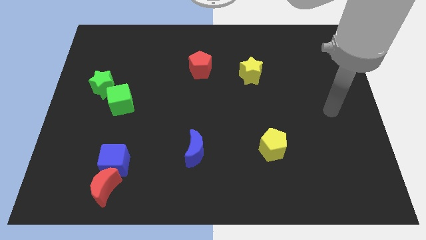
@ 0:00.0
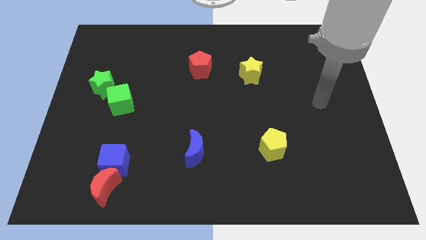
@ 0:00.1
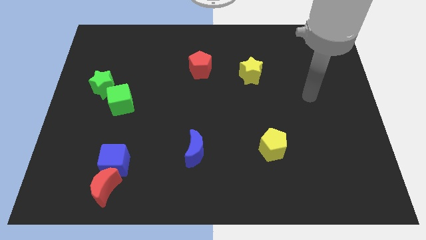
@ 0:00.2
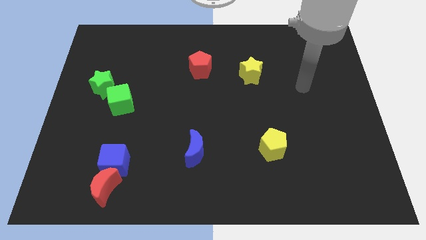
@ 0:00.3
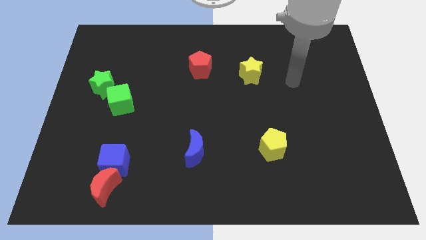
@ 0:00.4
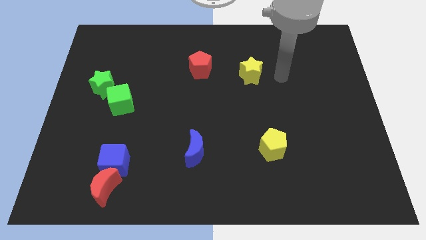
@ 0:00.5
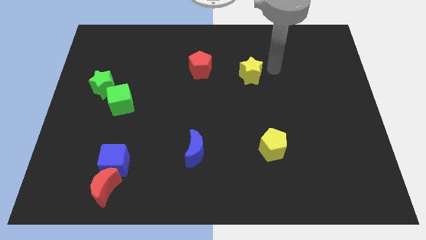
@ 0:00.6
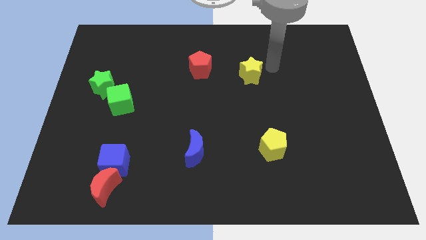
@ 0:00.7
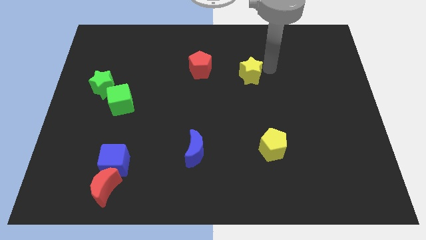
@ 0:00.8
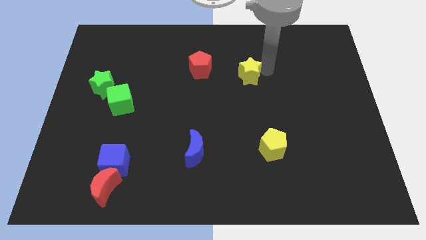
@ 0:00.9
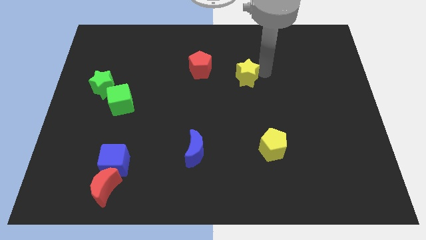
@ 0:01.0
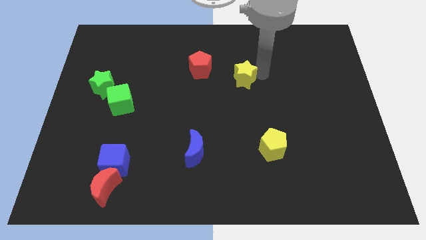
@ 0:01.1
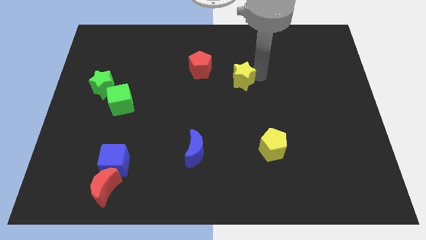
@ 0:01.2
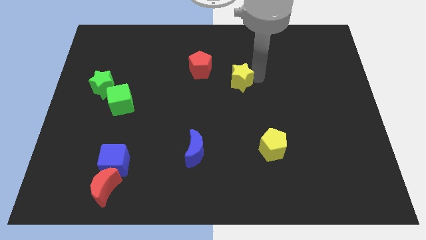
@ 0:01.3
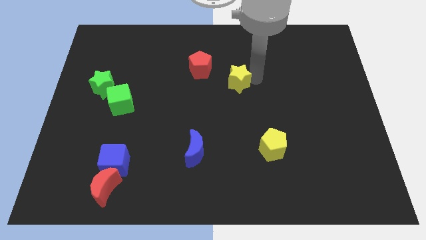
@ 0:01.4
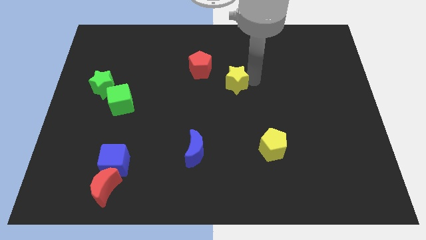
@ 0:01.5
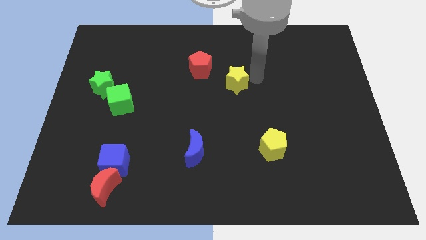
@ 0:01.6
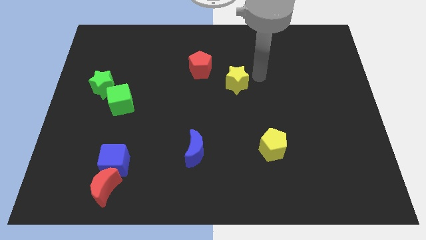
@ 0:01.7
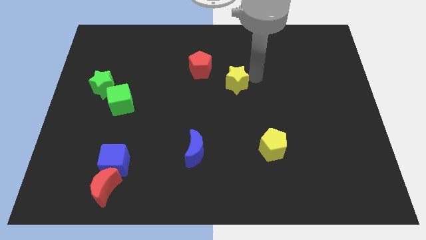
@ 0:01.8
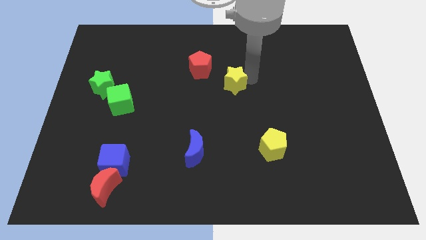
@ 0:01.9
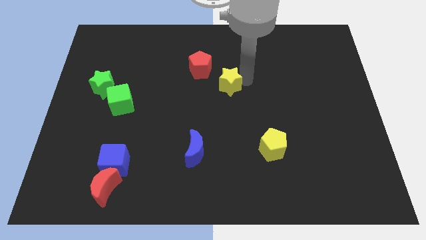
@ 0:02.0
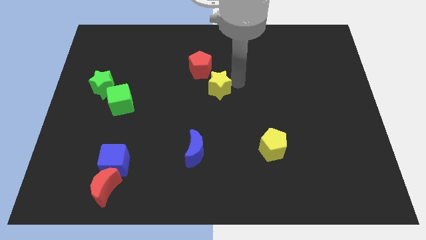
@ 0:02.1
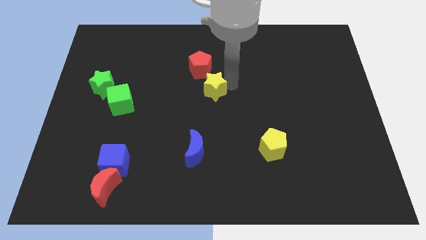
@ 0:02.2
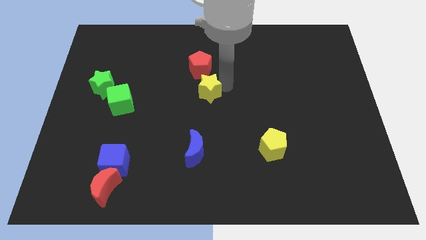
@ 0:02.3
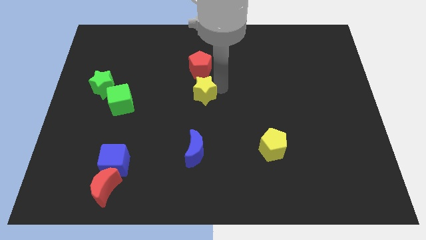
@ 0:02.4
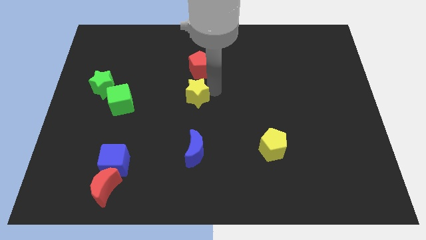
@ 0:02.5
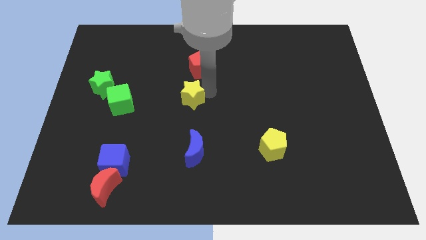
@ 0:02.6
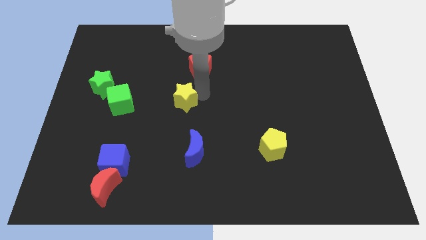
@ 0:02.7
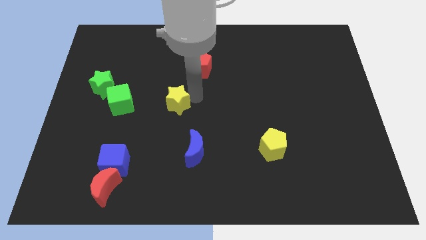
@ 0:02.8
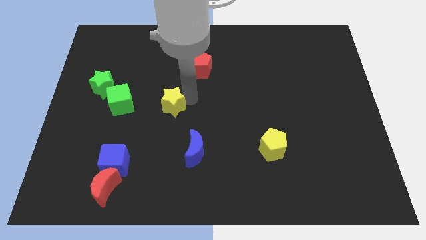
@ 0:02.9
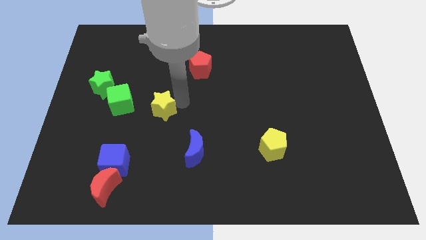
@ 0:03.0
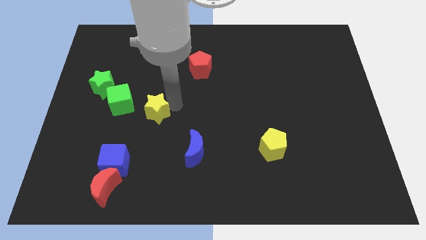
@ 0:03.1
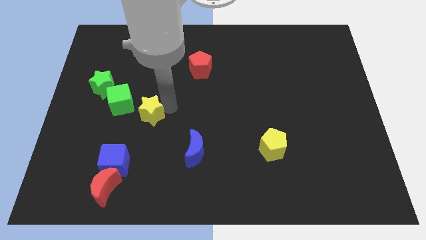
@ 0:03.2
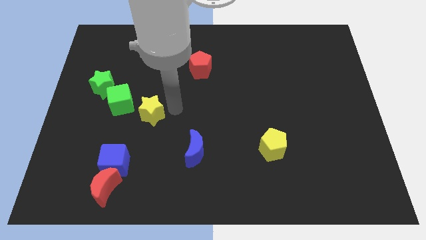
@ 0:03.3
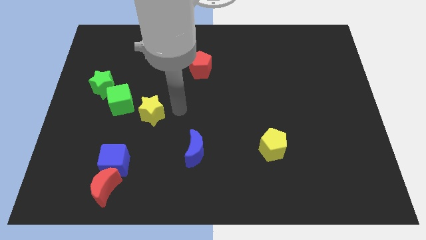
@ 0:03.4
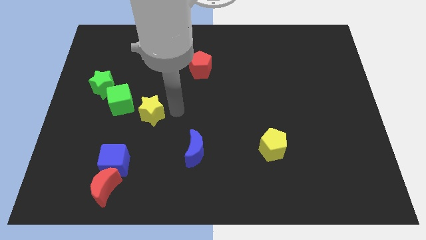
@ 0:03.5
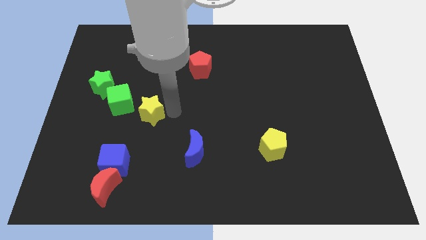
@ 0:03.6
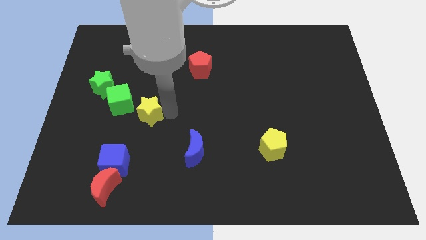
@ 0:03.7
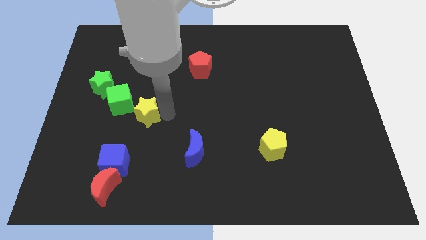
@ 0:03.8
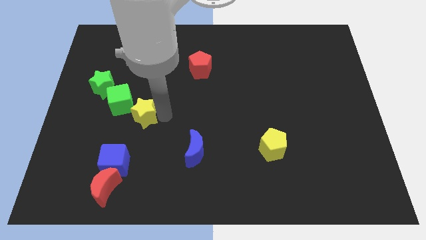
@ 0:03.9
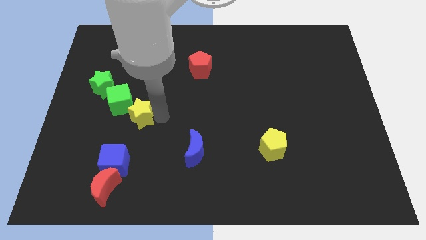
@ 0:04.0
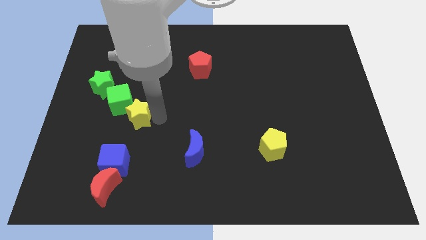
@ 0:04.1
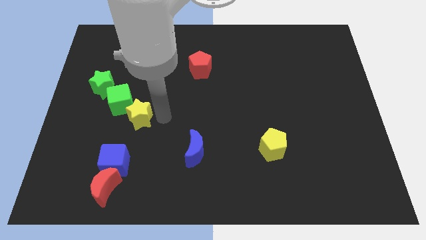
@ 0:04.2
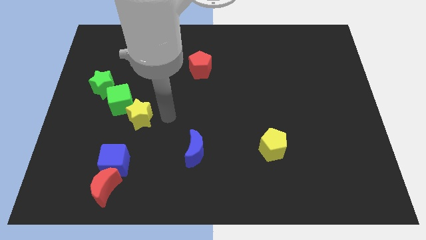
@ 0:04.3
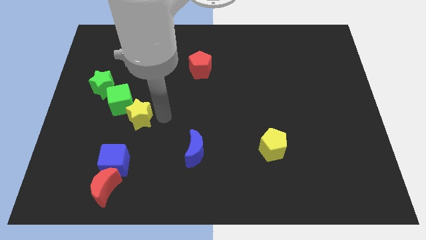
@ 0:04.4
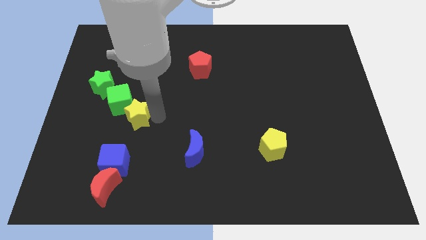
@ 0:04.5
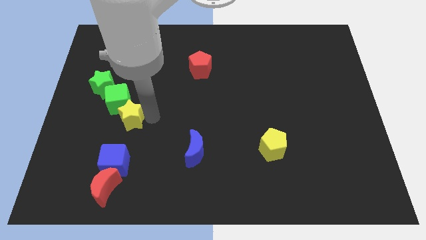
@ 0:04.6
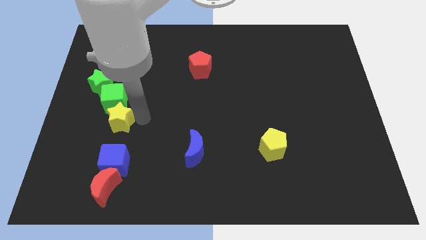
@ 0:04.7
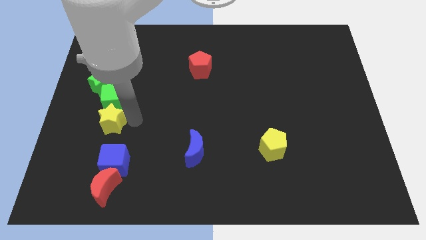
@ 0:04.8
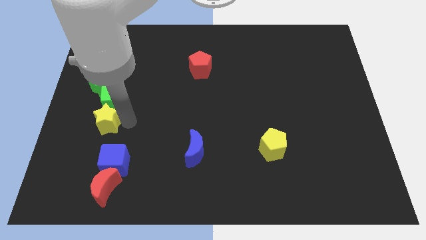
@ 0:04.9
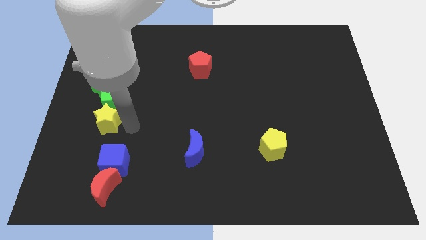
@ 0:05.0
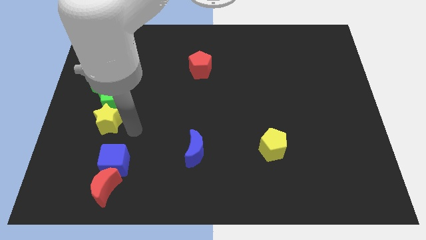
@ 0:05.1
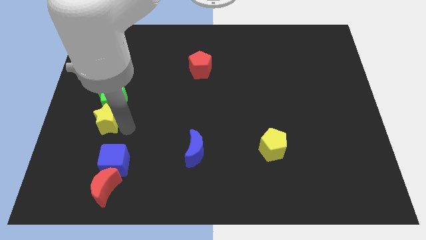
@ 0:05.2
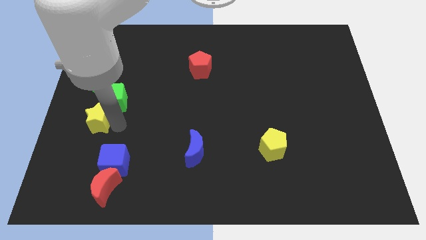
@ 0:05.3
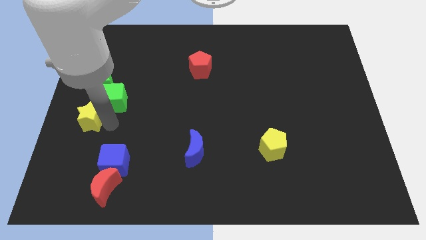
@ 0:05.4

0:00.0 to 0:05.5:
push the yellow star to the left side of the board

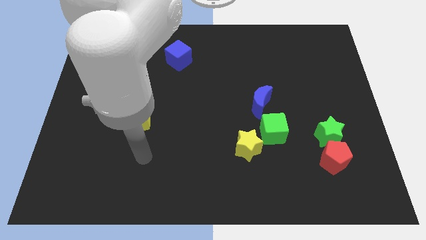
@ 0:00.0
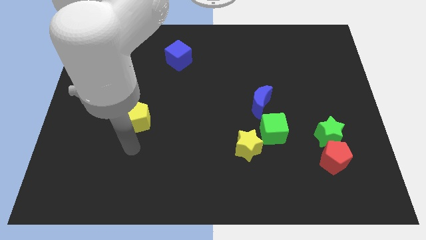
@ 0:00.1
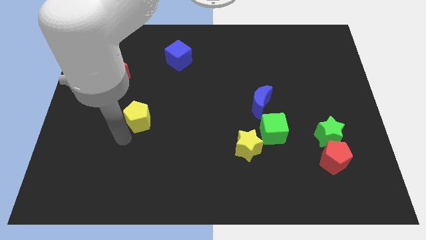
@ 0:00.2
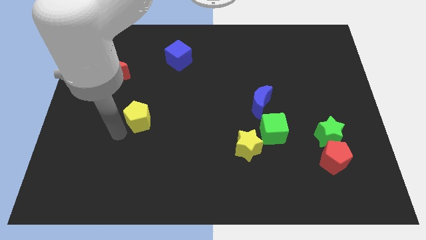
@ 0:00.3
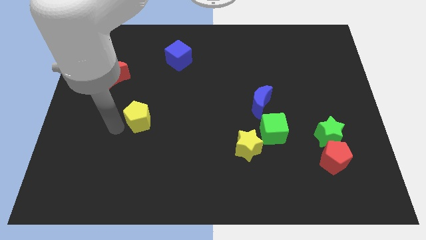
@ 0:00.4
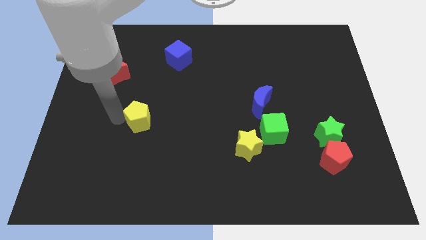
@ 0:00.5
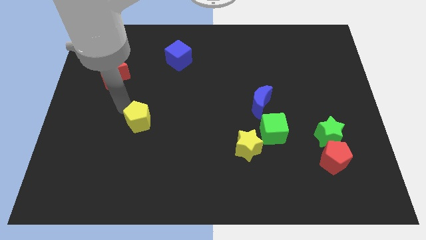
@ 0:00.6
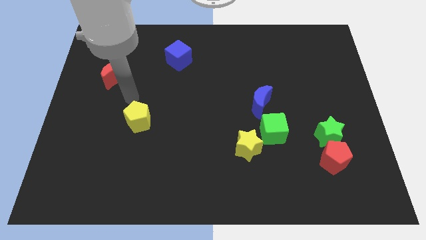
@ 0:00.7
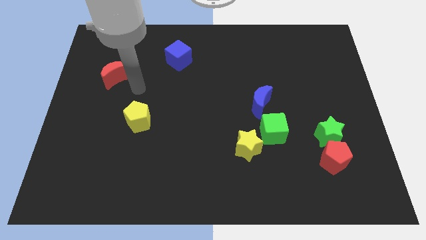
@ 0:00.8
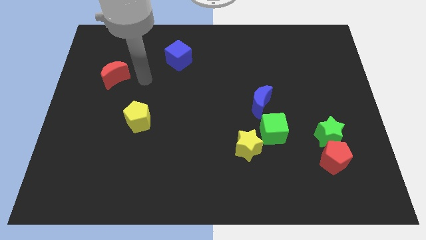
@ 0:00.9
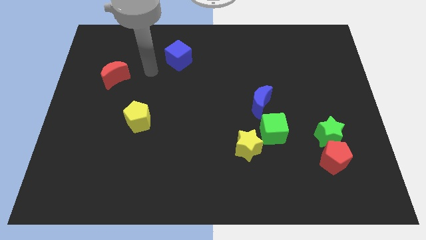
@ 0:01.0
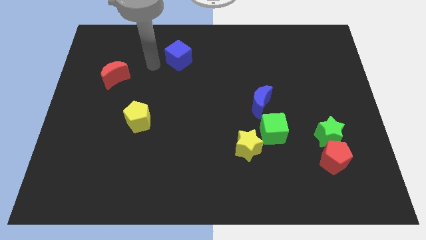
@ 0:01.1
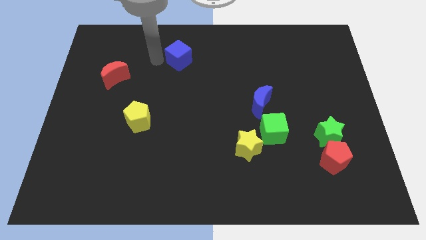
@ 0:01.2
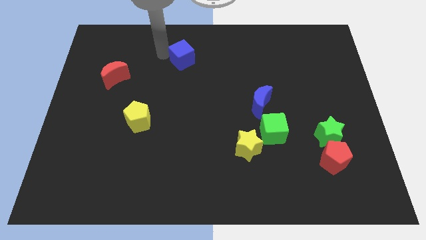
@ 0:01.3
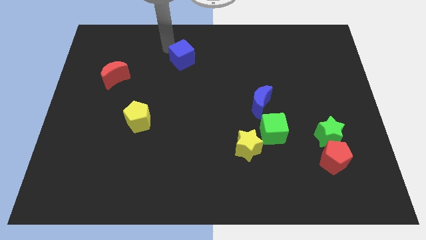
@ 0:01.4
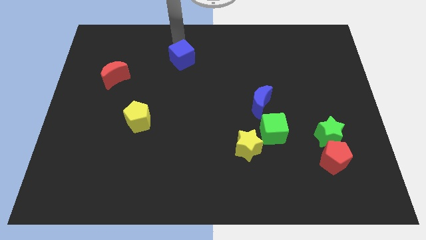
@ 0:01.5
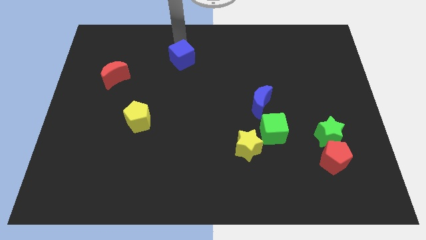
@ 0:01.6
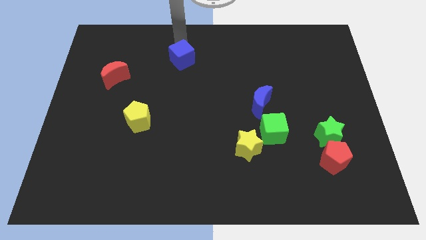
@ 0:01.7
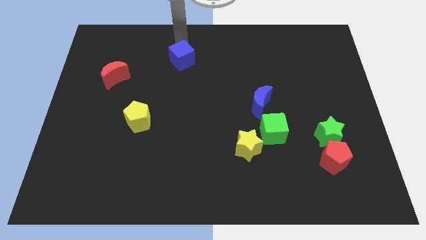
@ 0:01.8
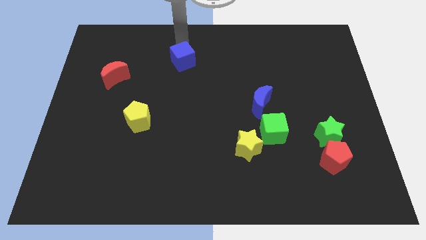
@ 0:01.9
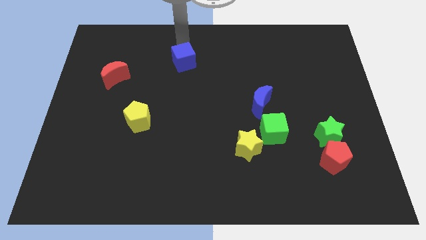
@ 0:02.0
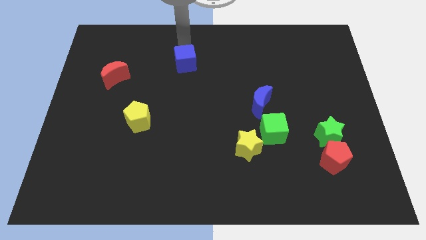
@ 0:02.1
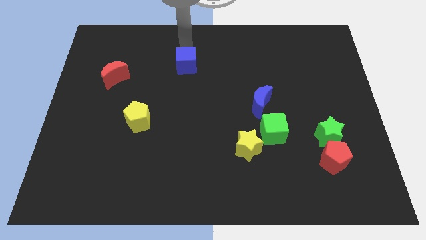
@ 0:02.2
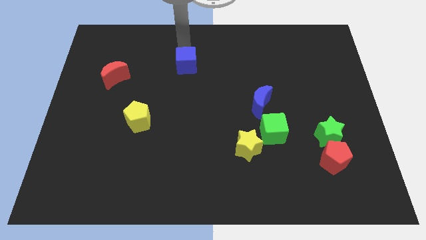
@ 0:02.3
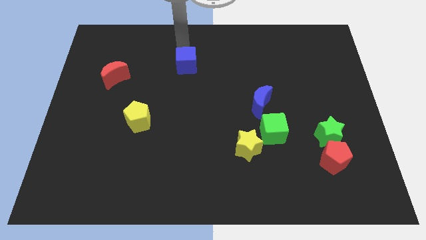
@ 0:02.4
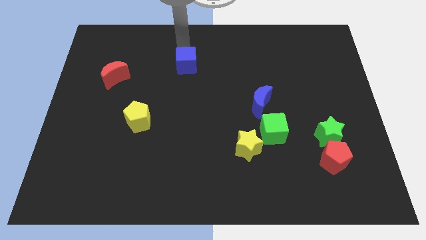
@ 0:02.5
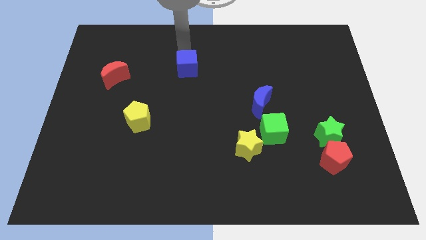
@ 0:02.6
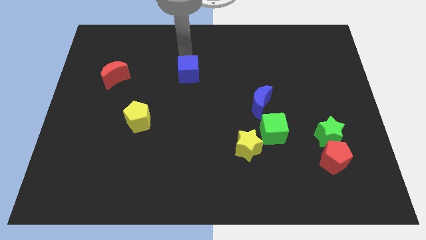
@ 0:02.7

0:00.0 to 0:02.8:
slide the blue cube to the middle
